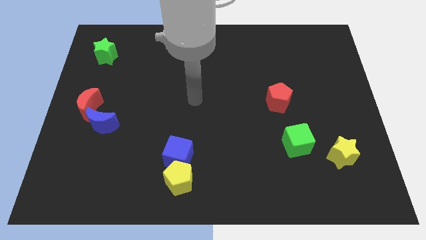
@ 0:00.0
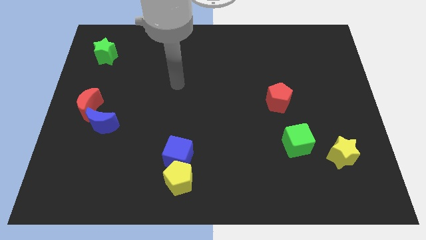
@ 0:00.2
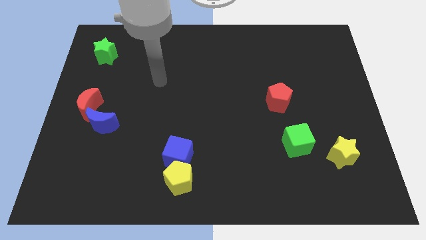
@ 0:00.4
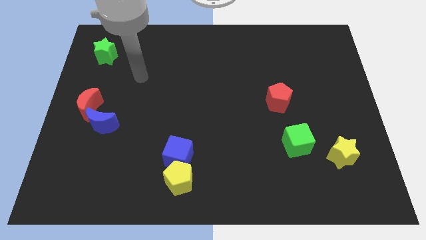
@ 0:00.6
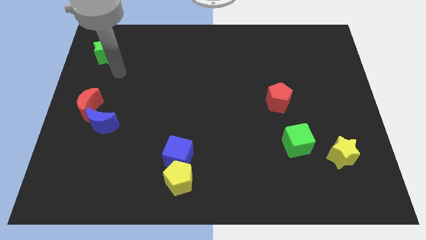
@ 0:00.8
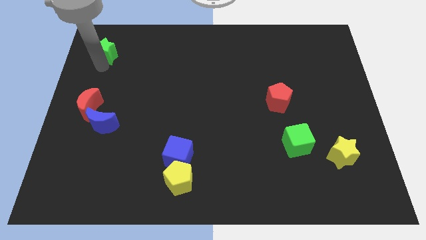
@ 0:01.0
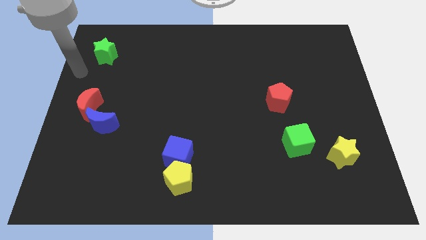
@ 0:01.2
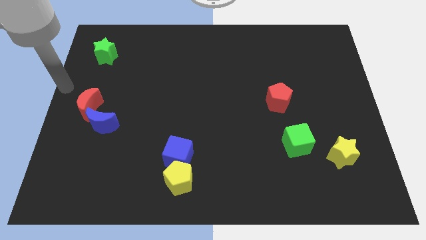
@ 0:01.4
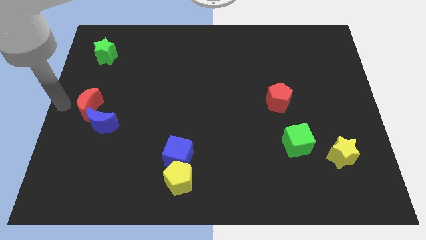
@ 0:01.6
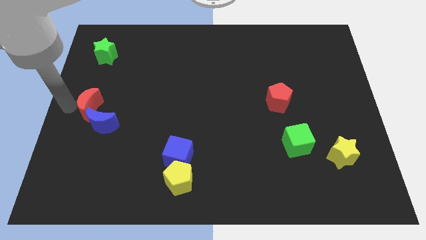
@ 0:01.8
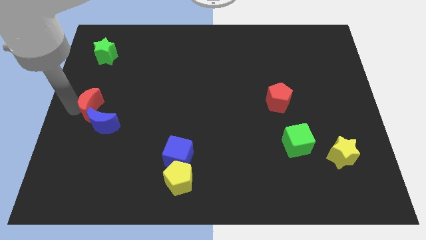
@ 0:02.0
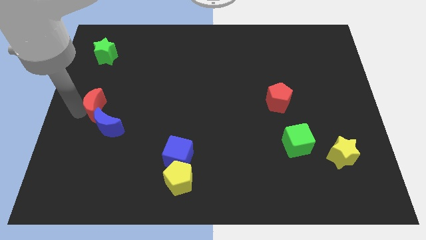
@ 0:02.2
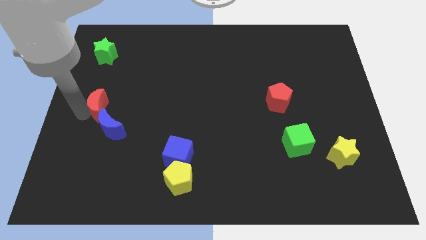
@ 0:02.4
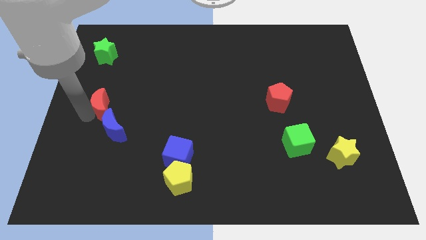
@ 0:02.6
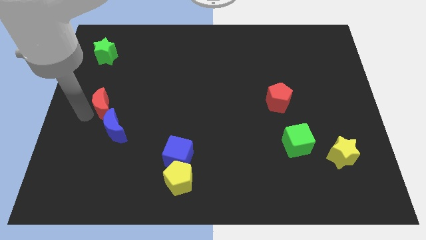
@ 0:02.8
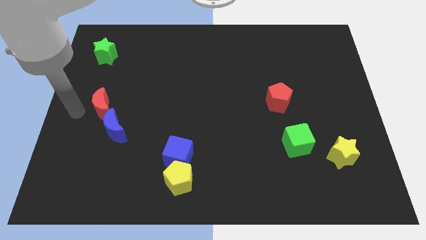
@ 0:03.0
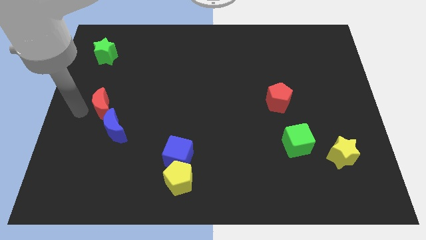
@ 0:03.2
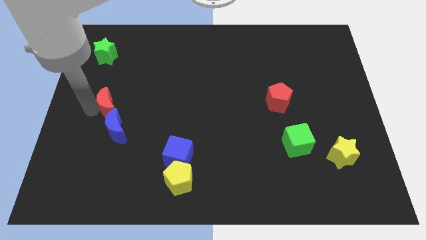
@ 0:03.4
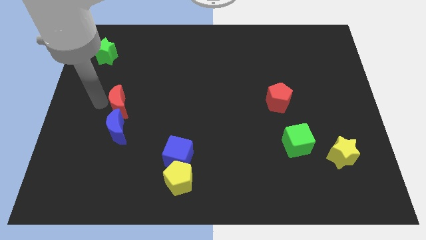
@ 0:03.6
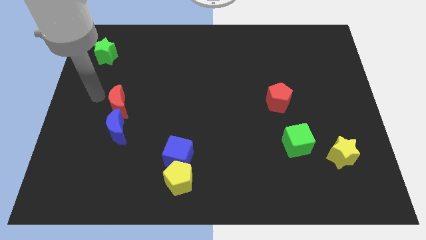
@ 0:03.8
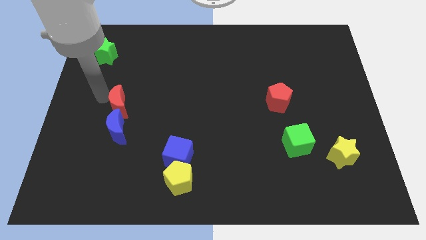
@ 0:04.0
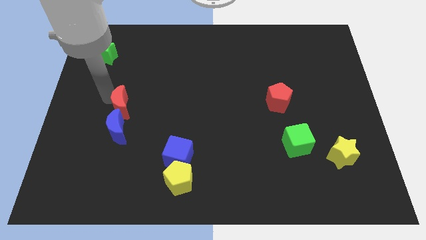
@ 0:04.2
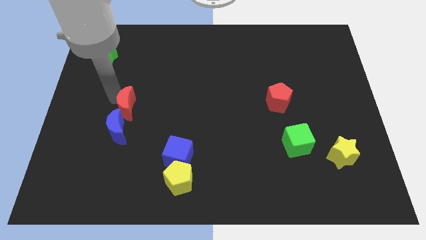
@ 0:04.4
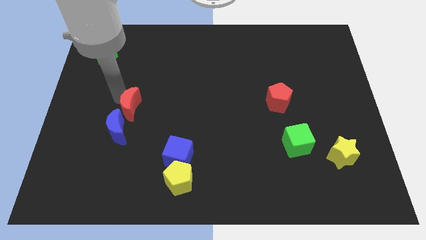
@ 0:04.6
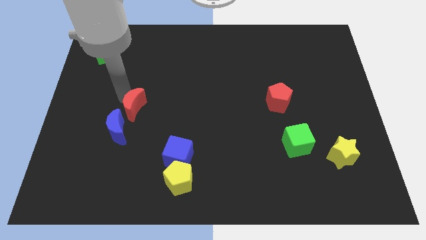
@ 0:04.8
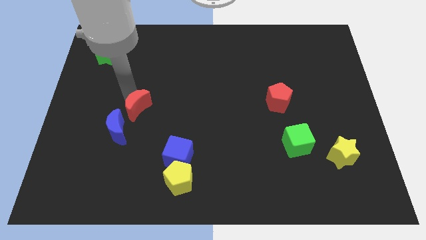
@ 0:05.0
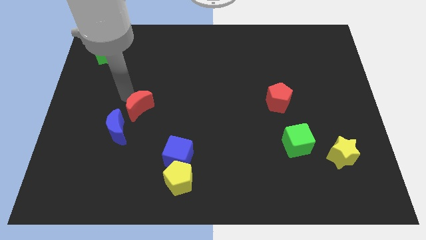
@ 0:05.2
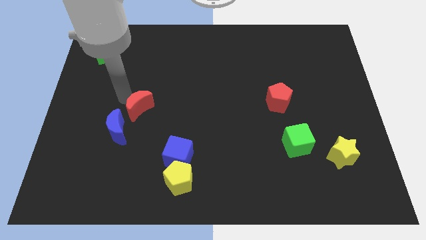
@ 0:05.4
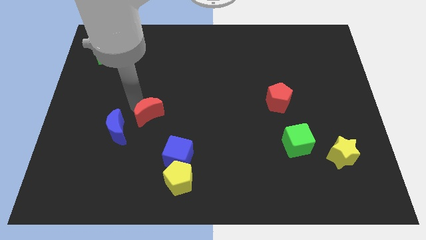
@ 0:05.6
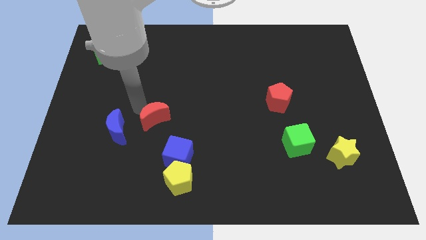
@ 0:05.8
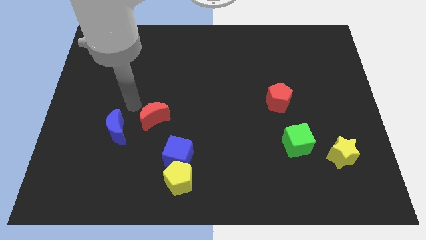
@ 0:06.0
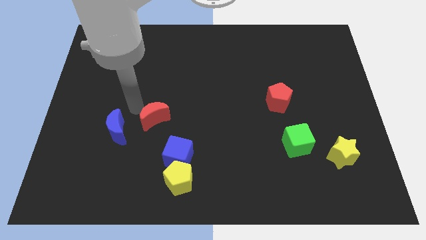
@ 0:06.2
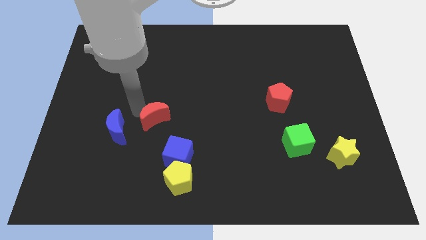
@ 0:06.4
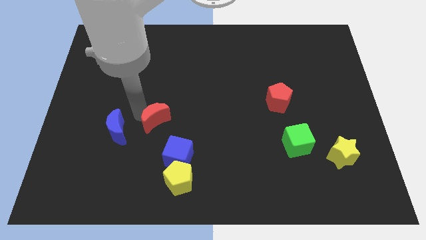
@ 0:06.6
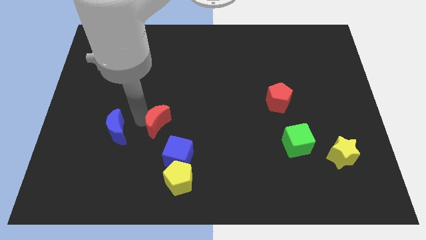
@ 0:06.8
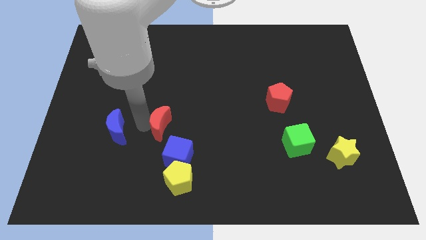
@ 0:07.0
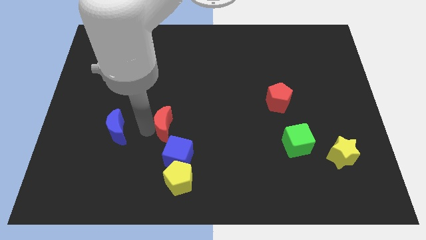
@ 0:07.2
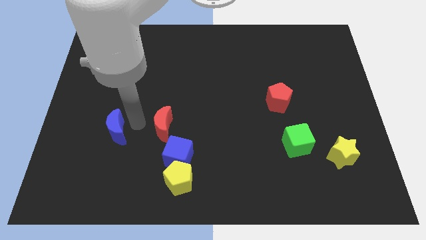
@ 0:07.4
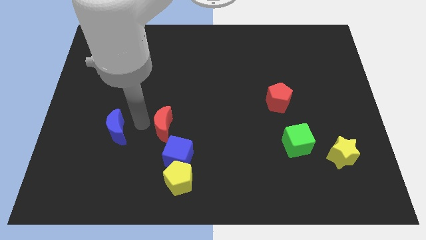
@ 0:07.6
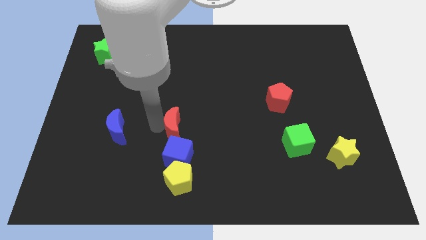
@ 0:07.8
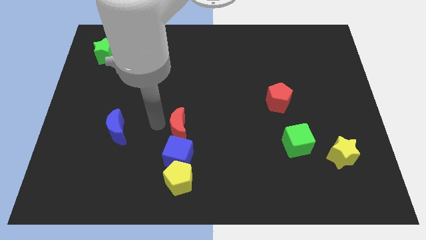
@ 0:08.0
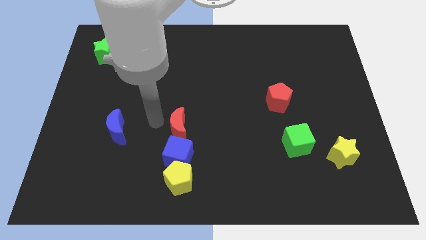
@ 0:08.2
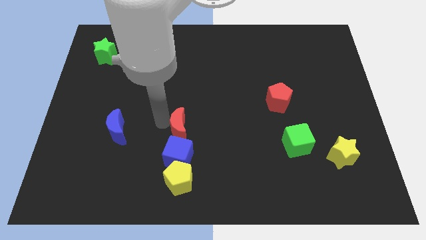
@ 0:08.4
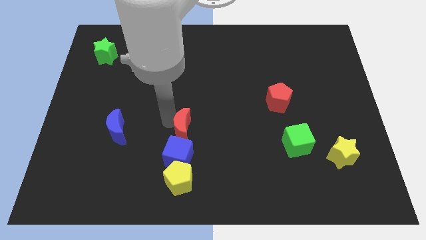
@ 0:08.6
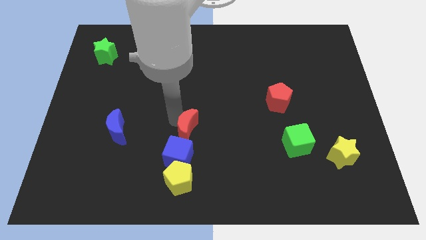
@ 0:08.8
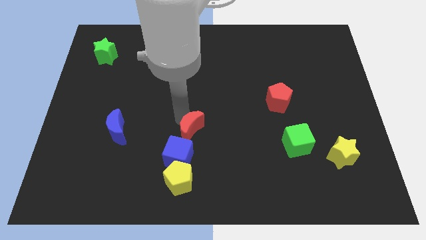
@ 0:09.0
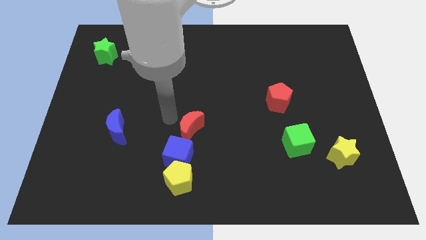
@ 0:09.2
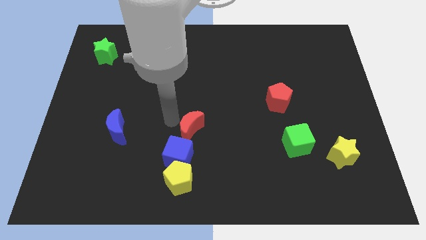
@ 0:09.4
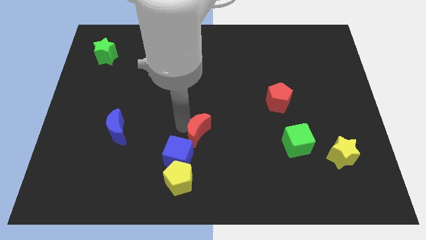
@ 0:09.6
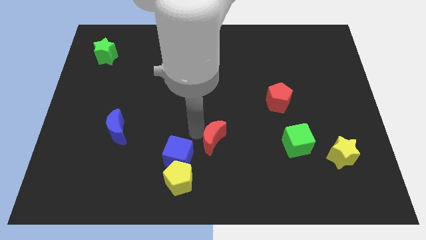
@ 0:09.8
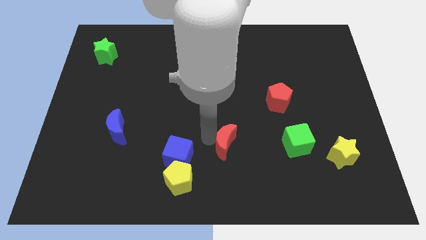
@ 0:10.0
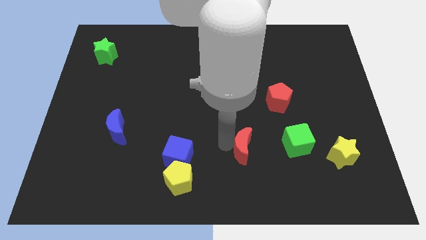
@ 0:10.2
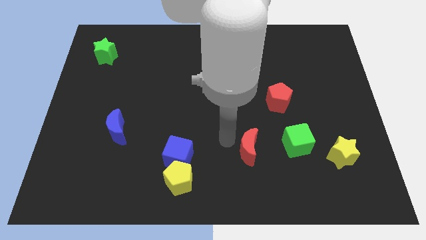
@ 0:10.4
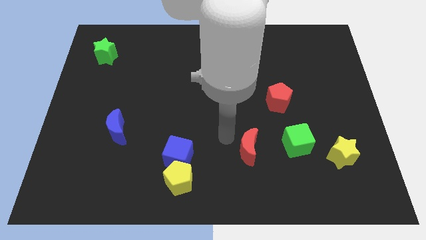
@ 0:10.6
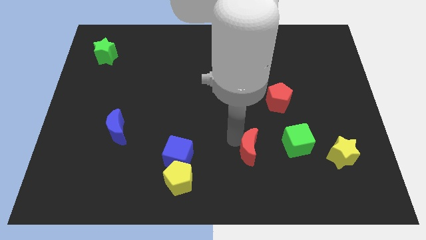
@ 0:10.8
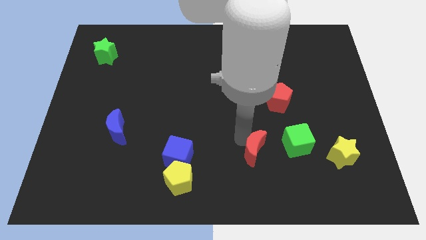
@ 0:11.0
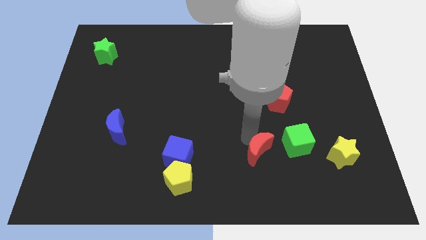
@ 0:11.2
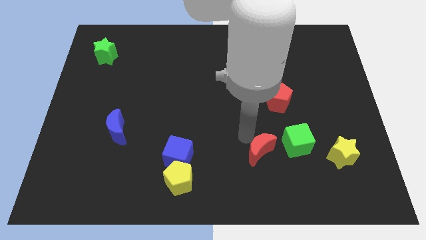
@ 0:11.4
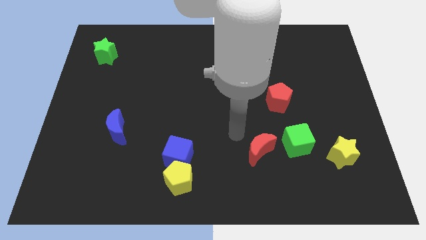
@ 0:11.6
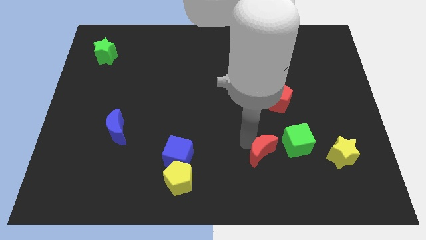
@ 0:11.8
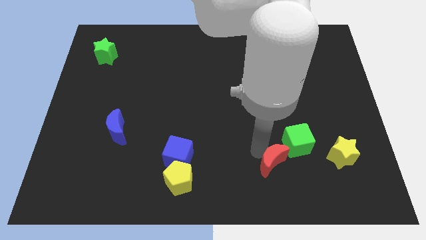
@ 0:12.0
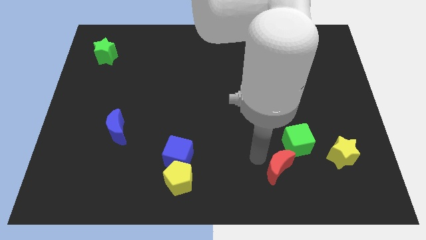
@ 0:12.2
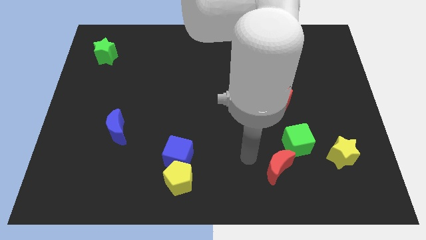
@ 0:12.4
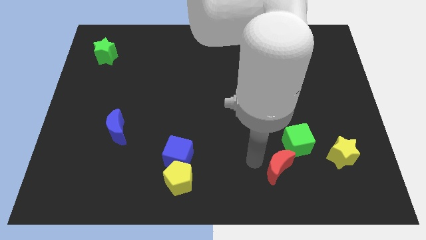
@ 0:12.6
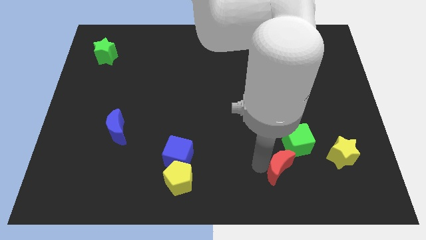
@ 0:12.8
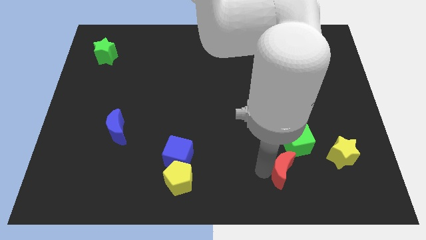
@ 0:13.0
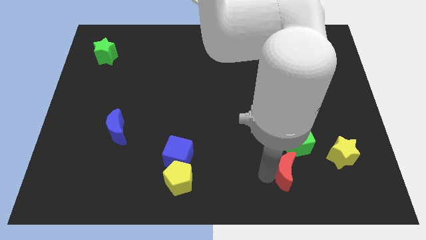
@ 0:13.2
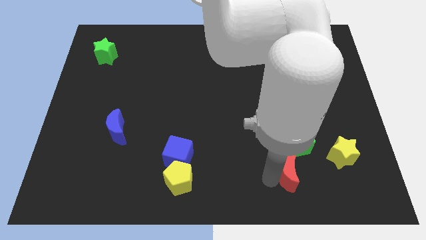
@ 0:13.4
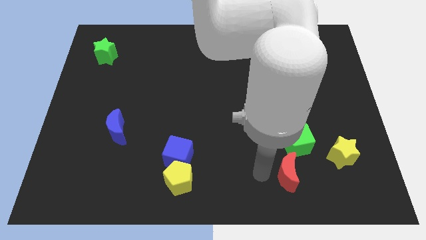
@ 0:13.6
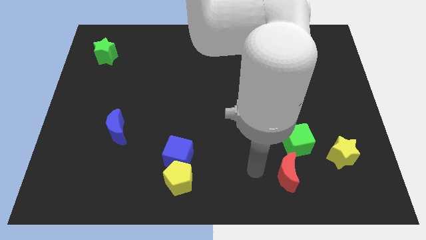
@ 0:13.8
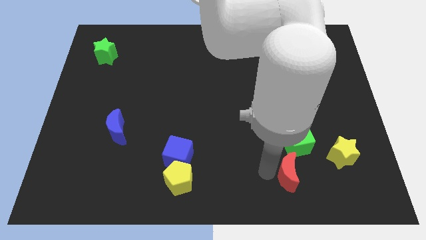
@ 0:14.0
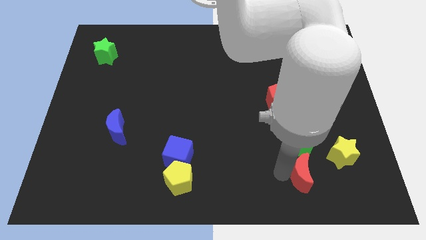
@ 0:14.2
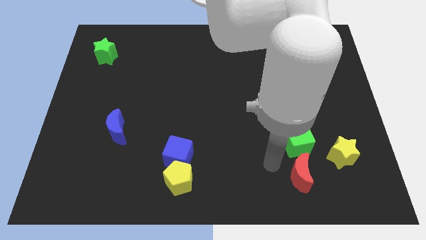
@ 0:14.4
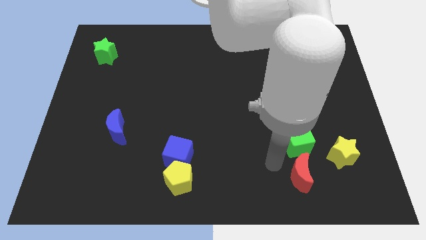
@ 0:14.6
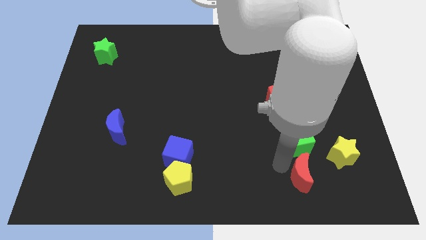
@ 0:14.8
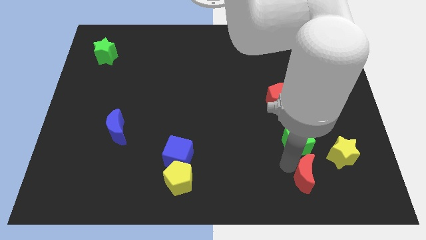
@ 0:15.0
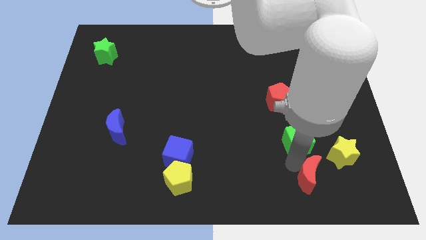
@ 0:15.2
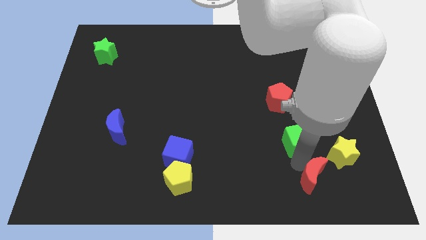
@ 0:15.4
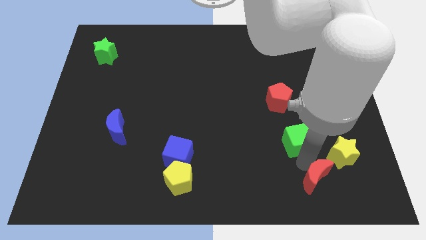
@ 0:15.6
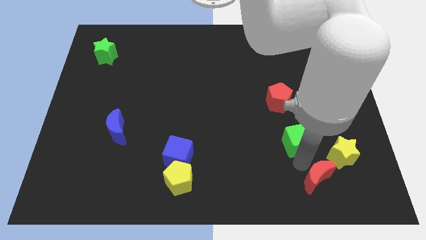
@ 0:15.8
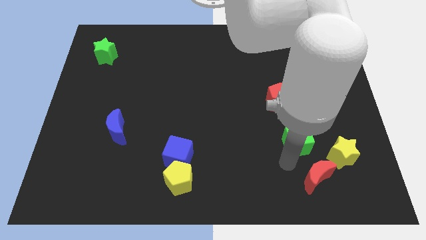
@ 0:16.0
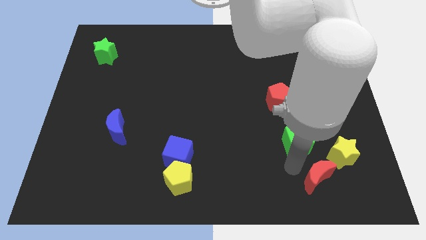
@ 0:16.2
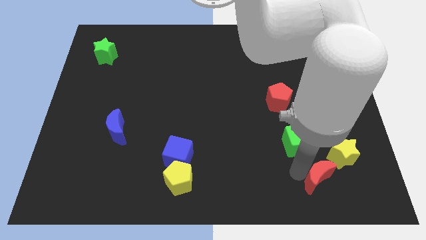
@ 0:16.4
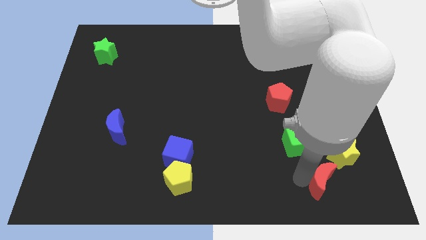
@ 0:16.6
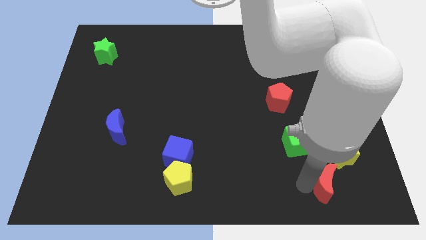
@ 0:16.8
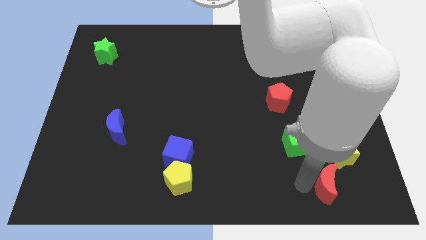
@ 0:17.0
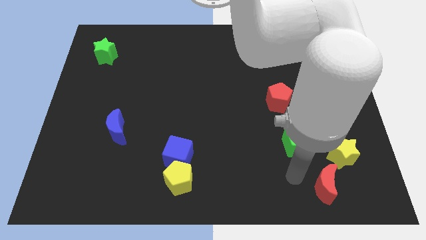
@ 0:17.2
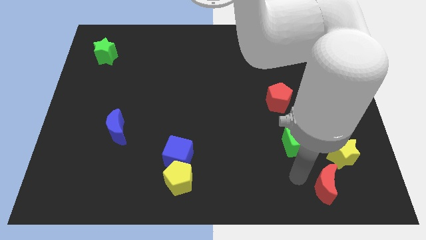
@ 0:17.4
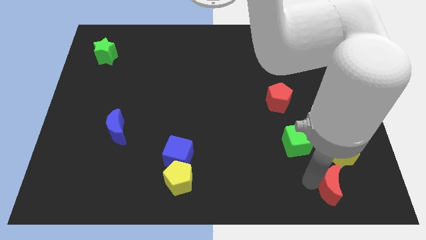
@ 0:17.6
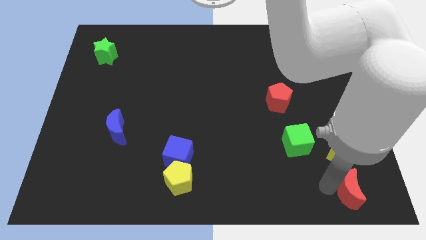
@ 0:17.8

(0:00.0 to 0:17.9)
move the red moon to the lower right corner
